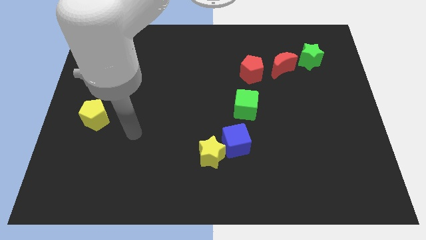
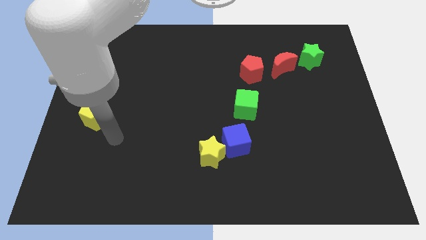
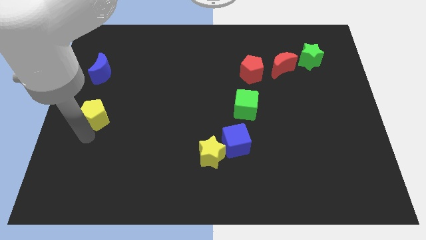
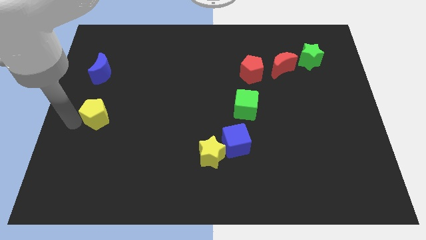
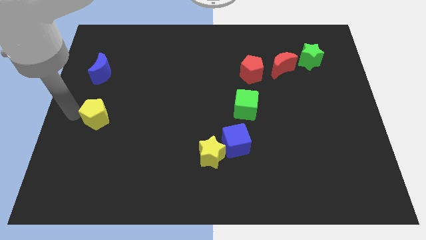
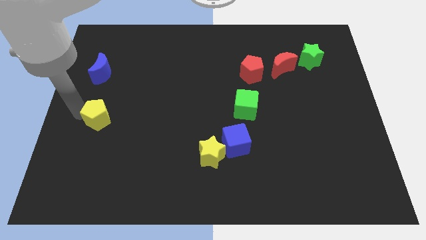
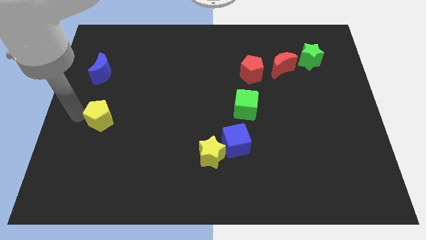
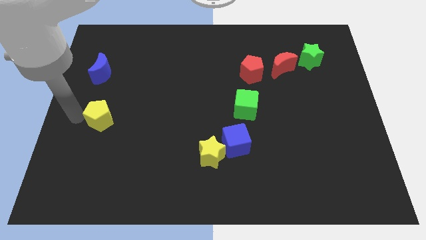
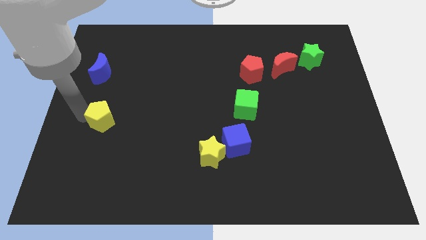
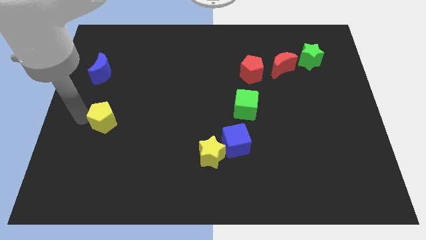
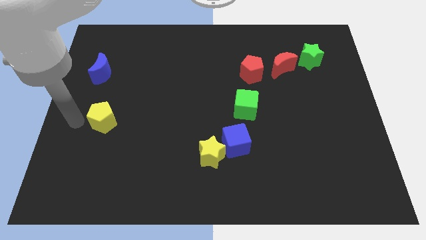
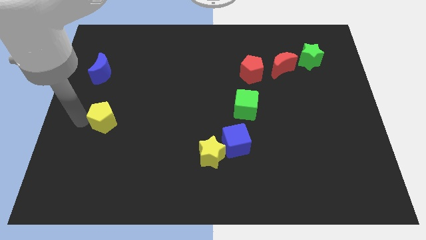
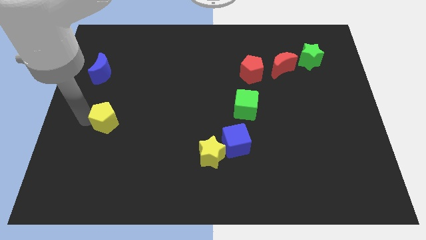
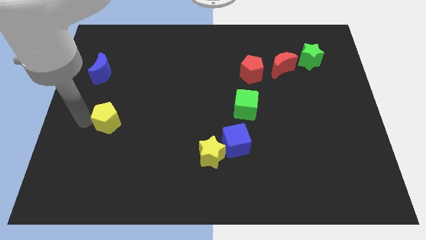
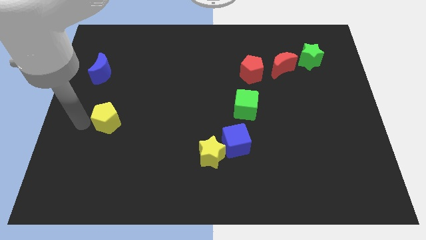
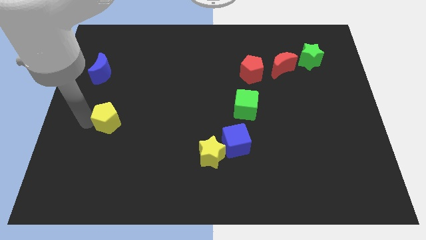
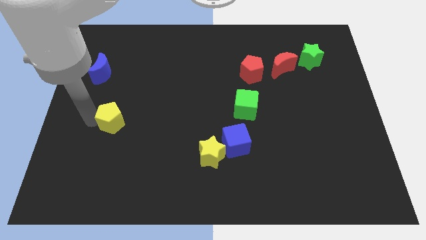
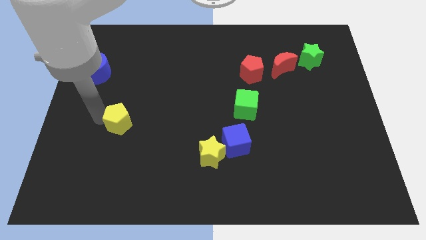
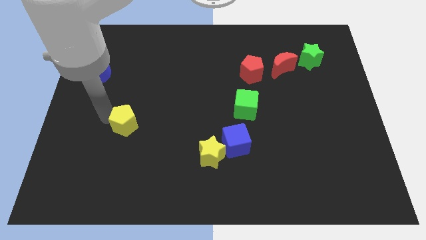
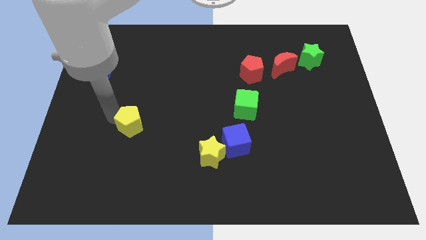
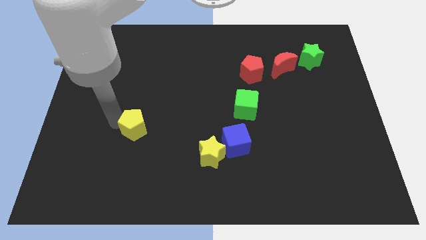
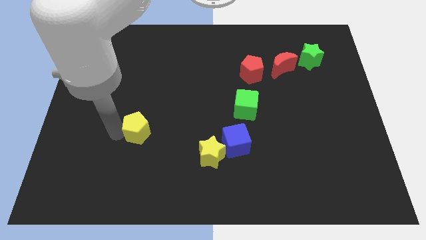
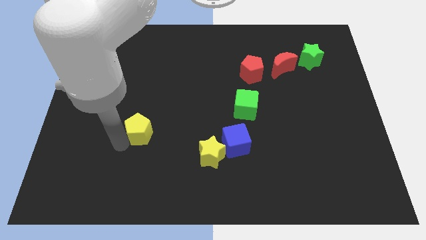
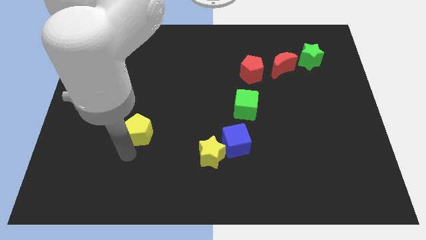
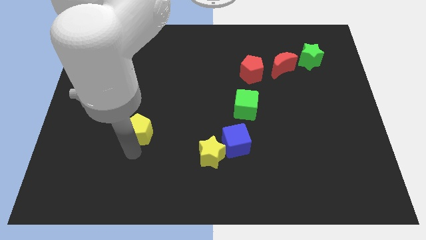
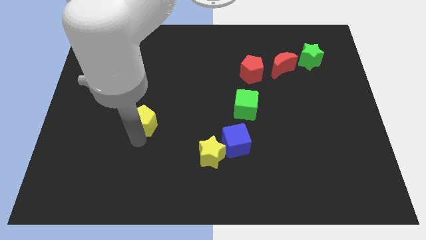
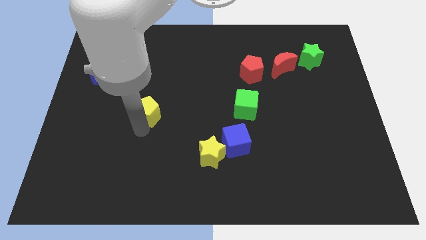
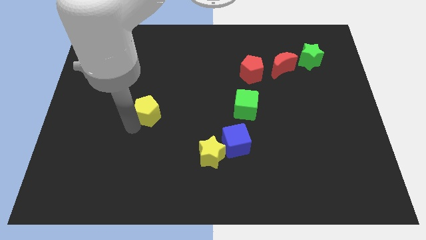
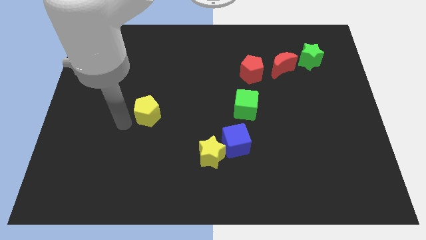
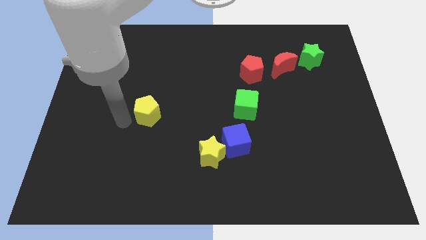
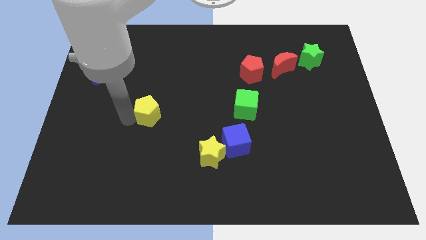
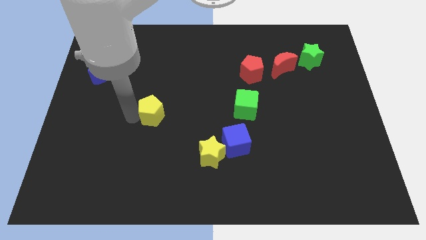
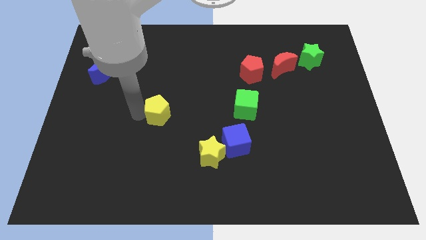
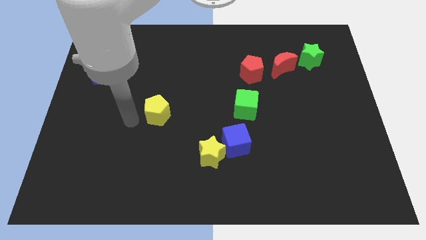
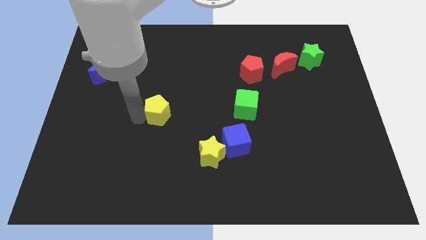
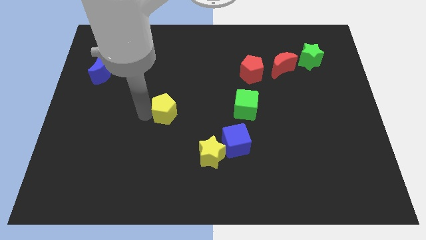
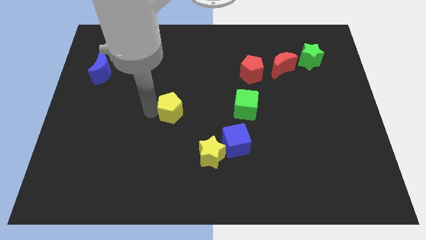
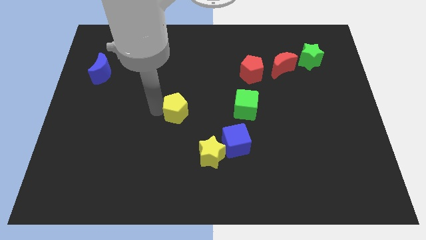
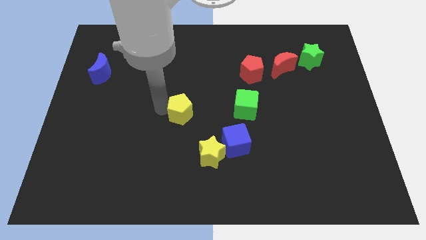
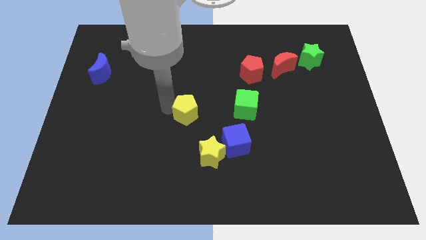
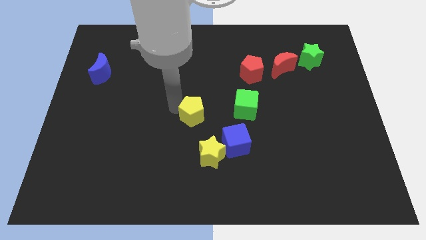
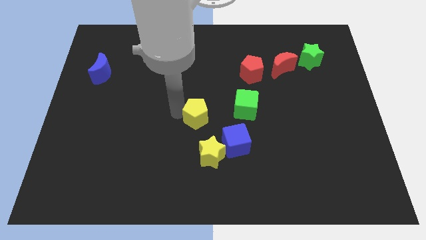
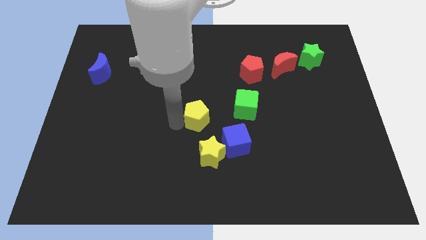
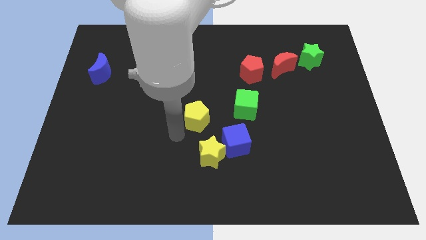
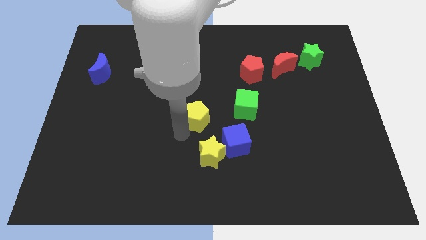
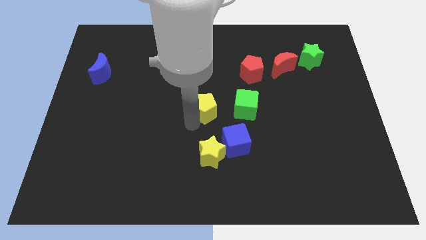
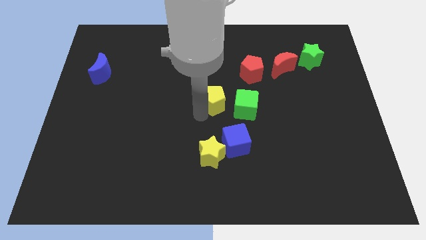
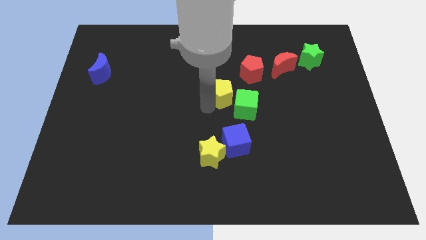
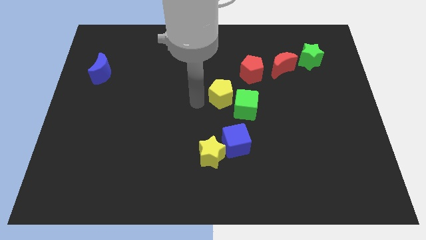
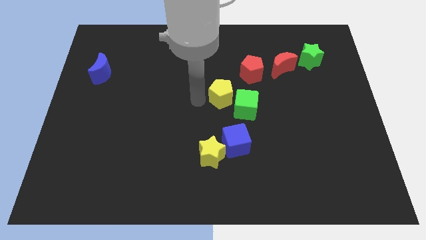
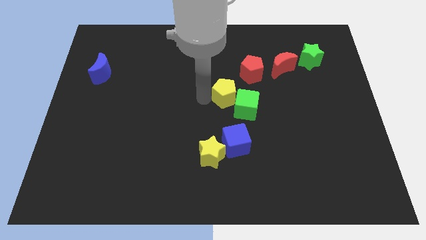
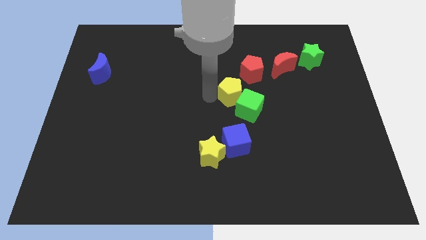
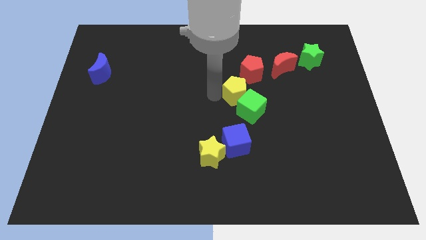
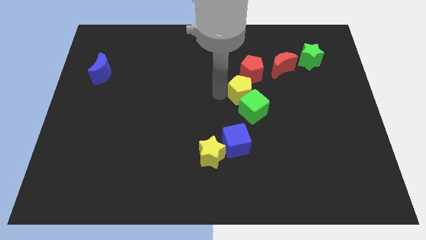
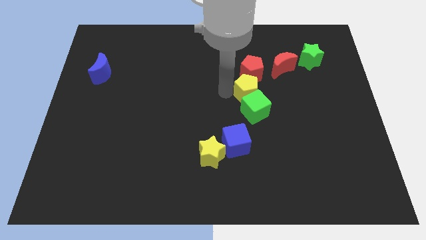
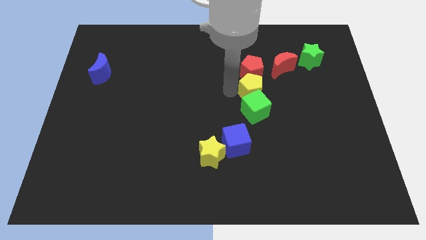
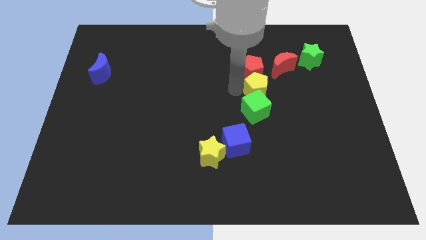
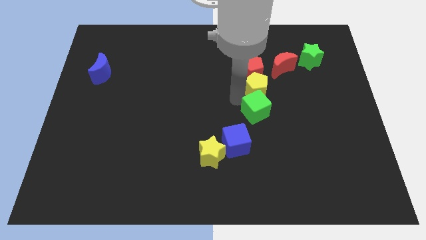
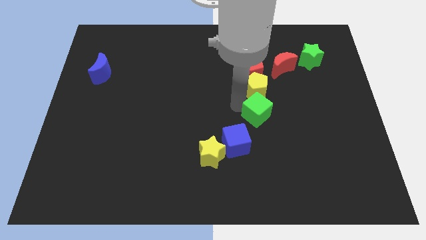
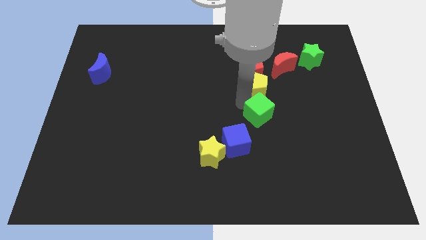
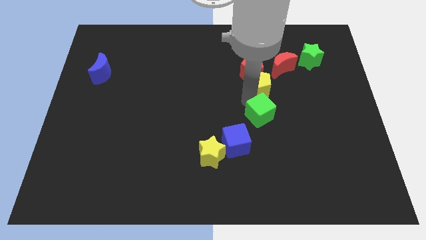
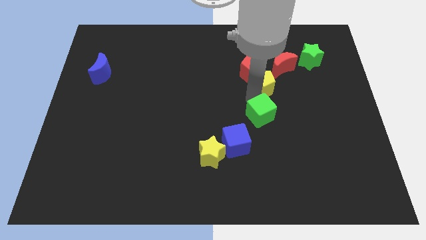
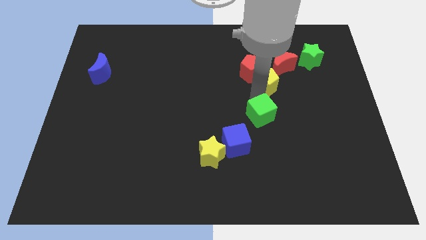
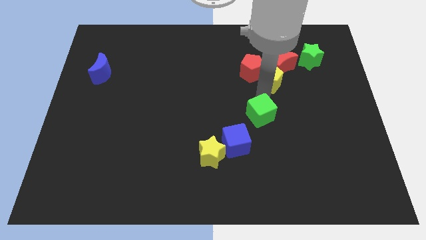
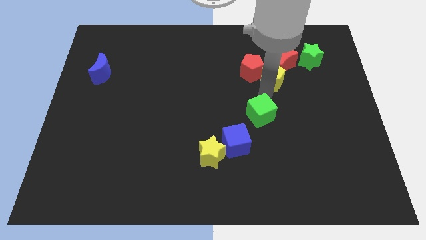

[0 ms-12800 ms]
slide the yellow pentagon next to the red moon

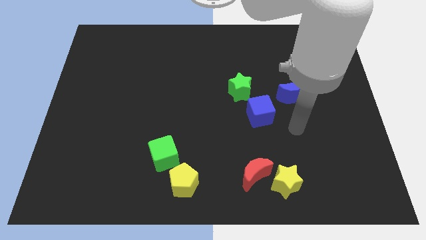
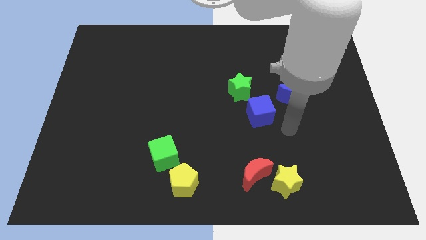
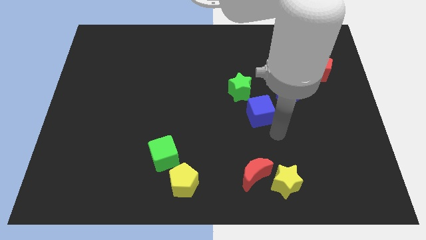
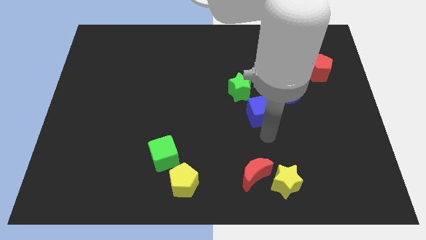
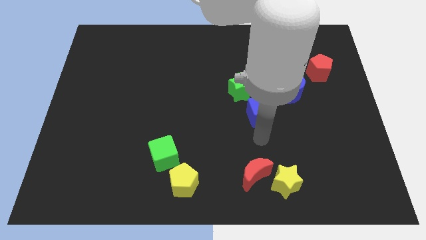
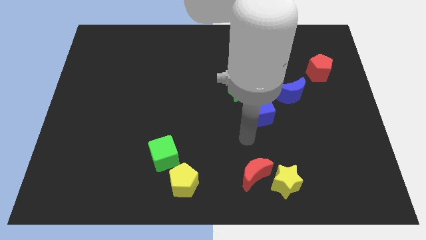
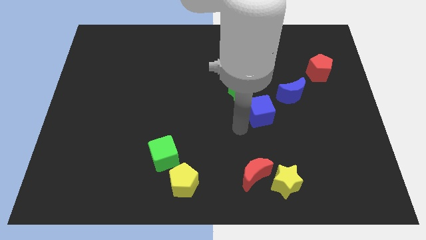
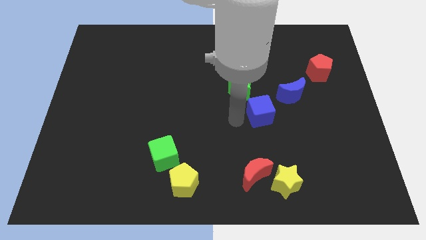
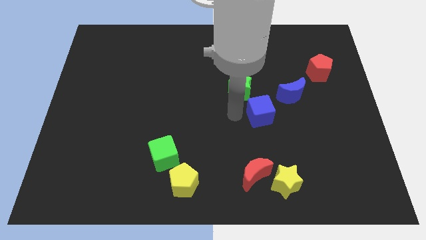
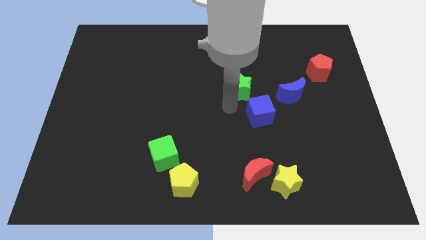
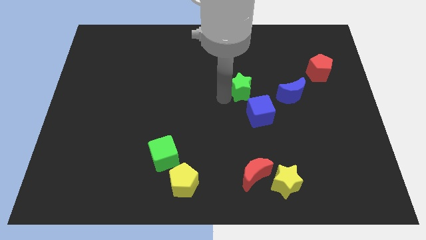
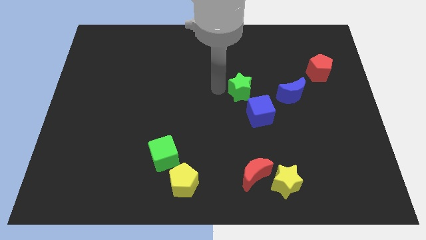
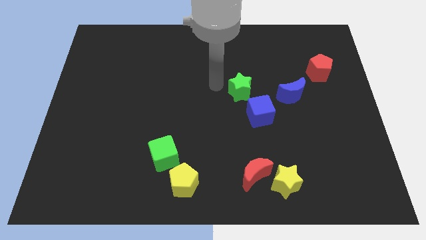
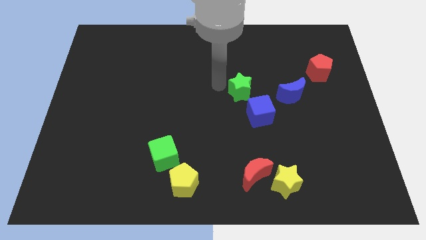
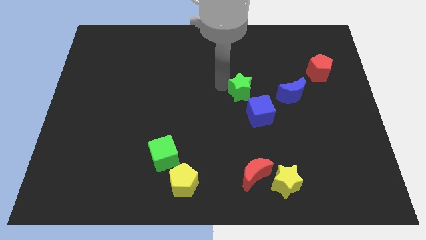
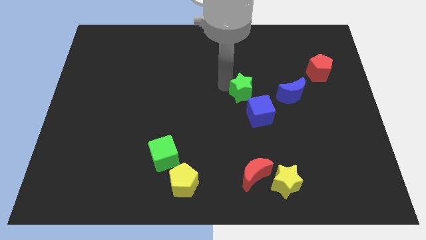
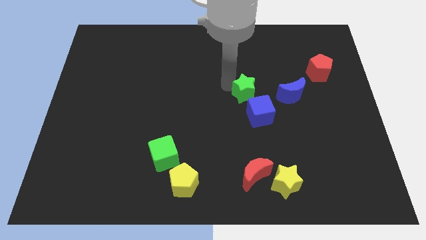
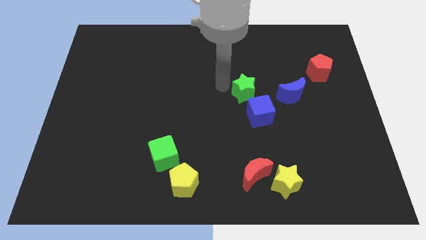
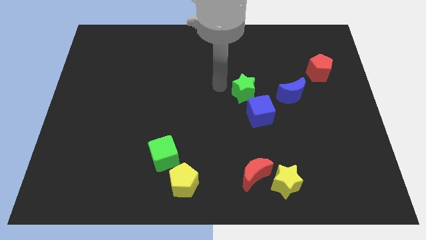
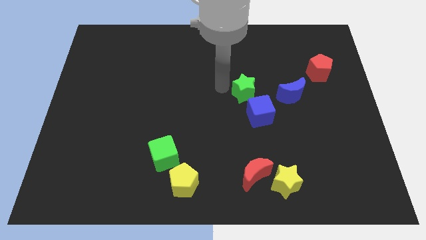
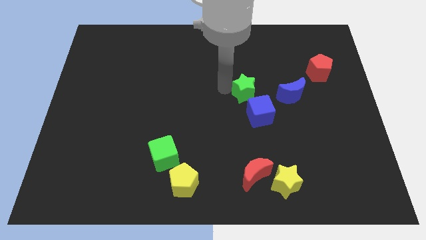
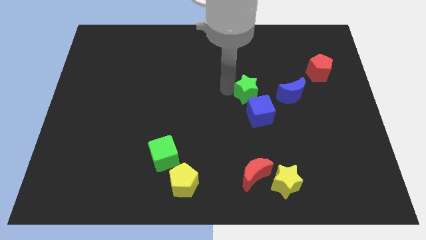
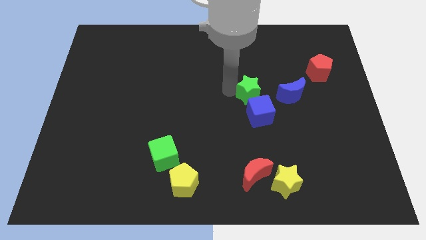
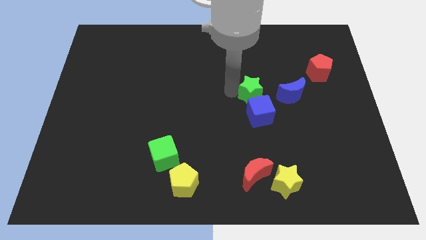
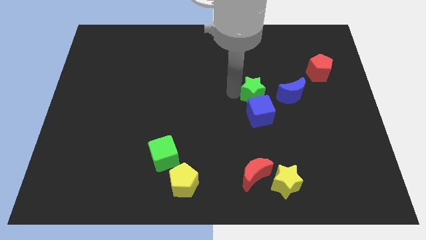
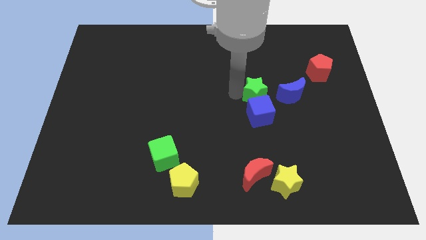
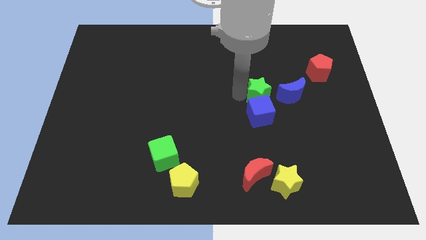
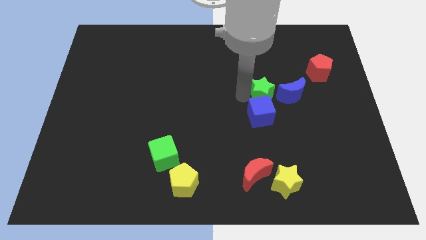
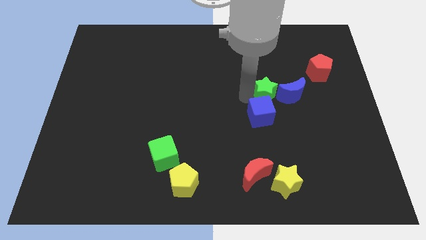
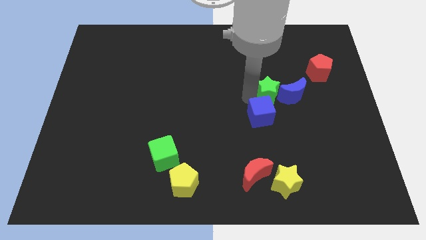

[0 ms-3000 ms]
slide the green star next to the blue moon
